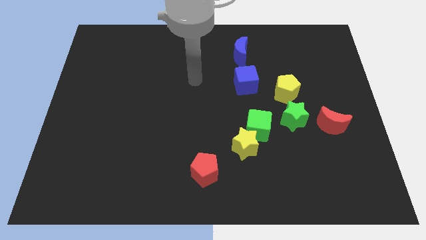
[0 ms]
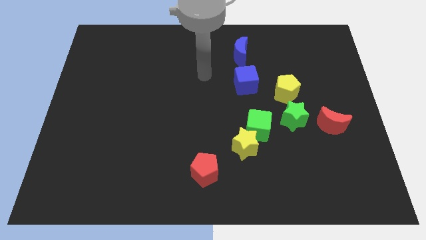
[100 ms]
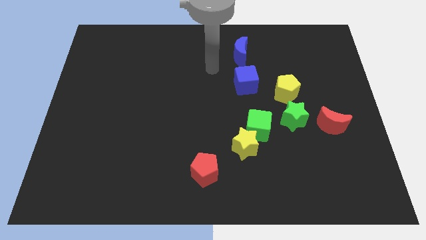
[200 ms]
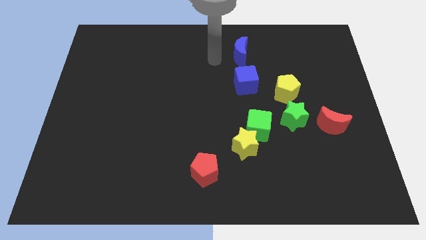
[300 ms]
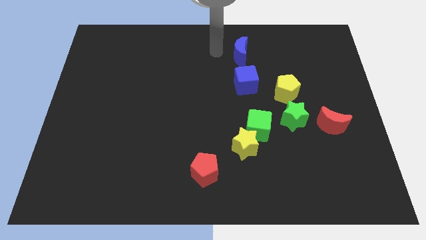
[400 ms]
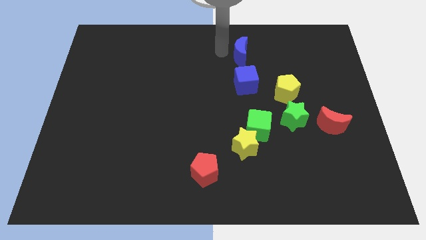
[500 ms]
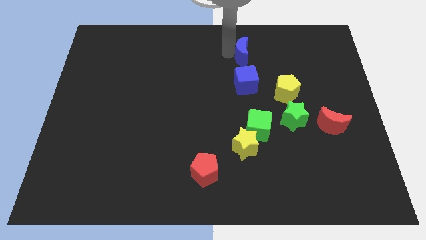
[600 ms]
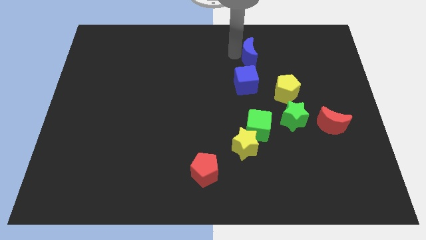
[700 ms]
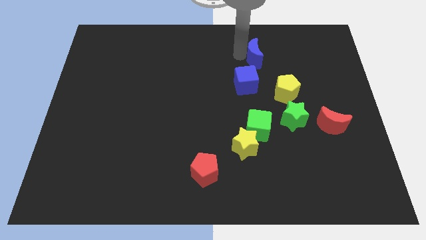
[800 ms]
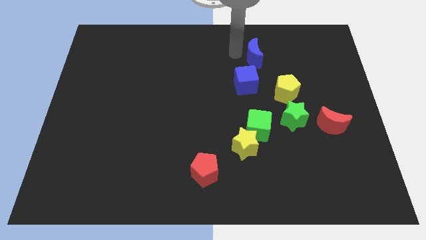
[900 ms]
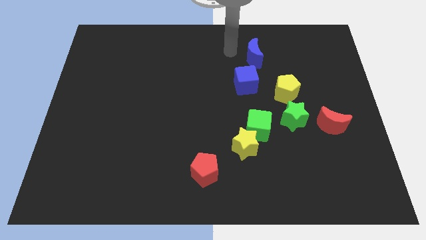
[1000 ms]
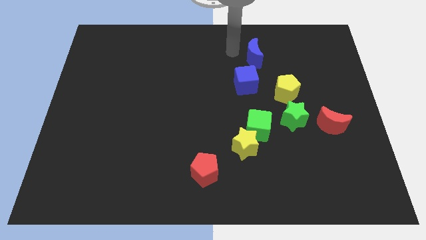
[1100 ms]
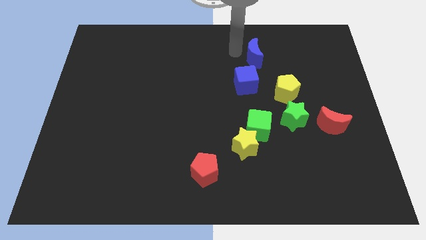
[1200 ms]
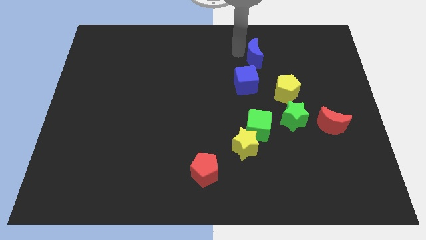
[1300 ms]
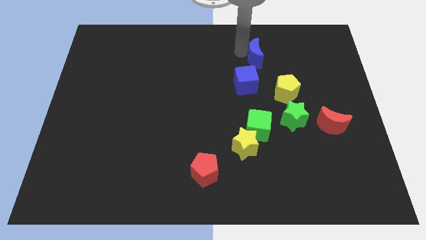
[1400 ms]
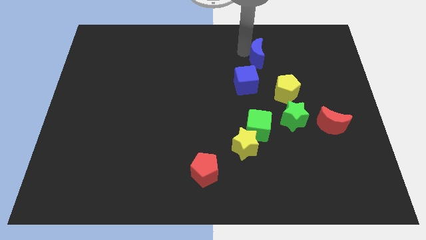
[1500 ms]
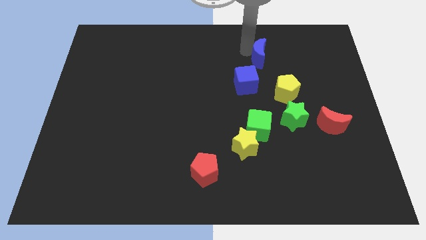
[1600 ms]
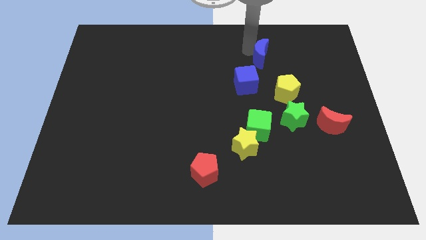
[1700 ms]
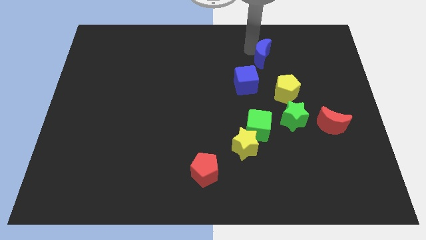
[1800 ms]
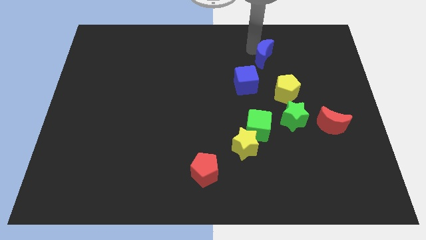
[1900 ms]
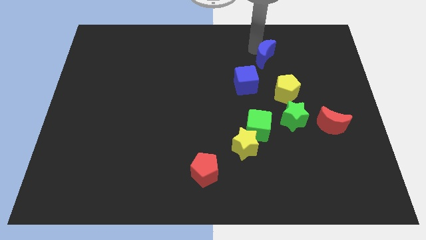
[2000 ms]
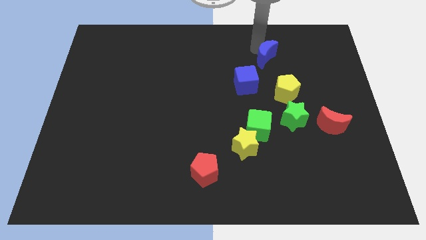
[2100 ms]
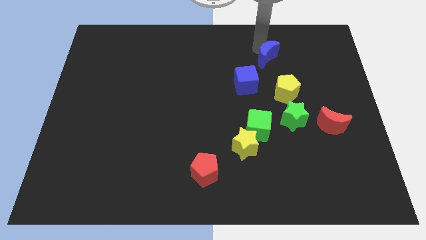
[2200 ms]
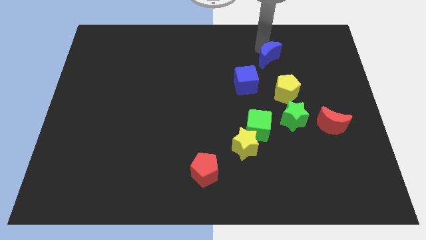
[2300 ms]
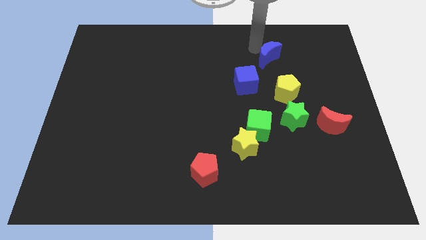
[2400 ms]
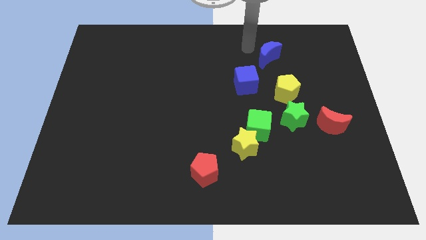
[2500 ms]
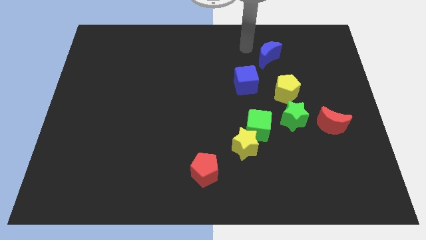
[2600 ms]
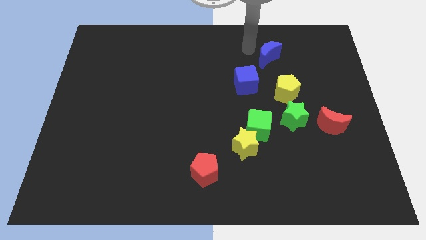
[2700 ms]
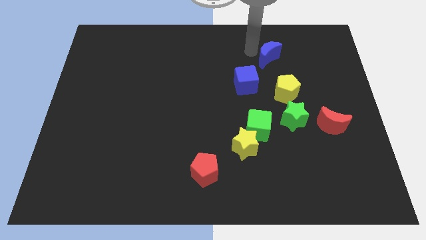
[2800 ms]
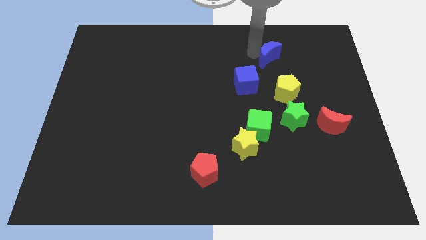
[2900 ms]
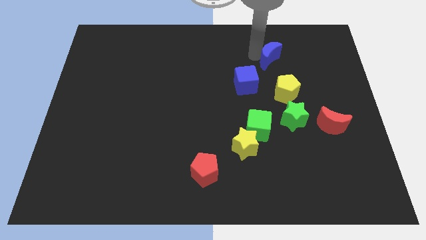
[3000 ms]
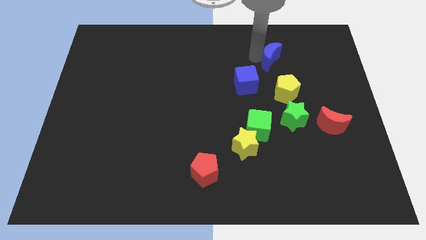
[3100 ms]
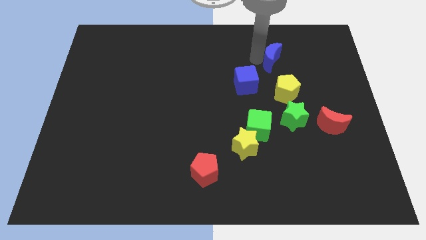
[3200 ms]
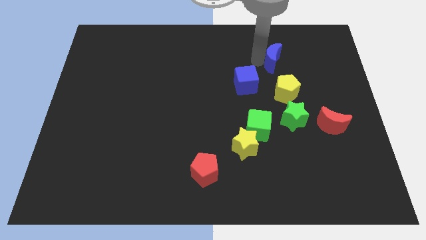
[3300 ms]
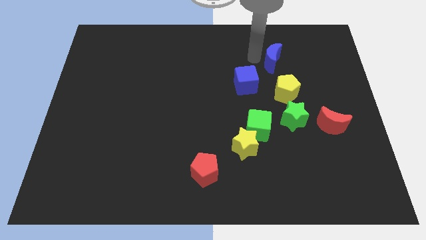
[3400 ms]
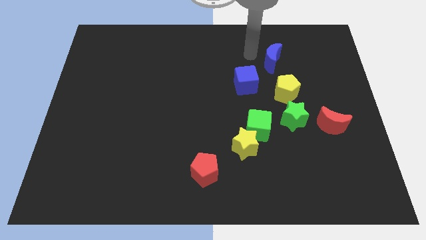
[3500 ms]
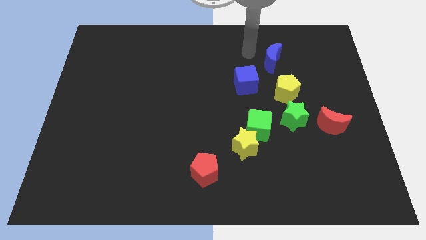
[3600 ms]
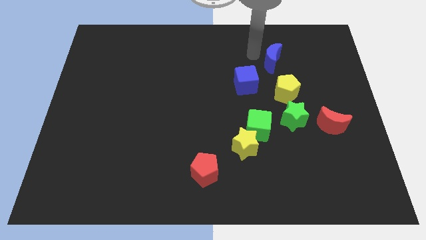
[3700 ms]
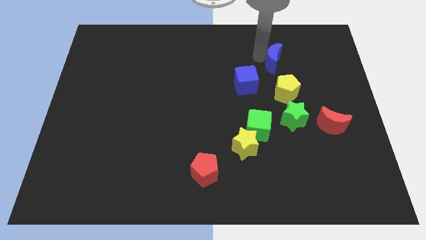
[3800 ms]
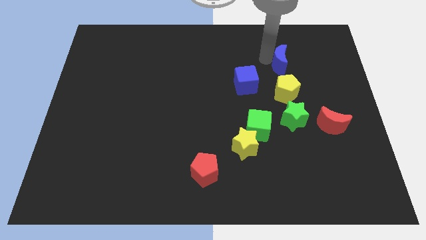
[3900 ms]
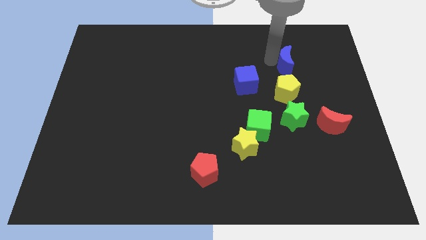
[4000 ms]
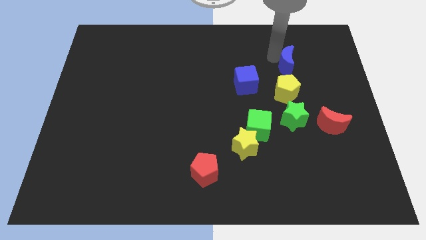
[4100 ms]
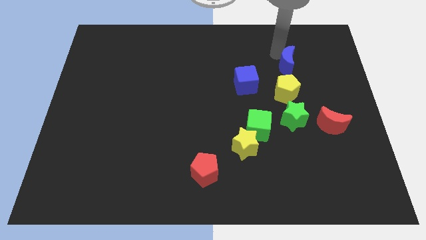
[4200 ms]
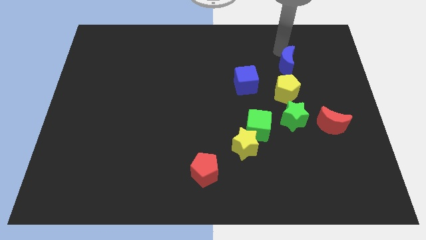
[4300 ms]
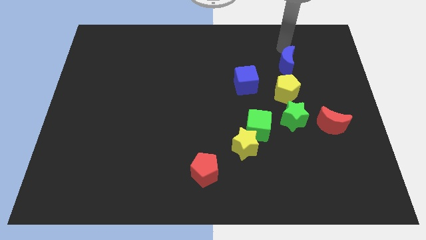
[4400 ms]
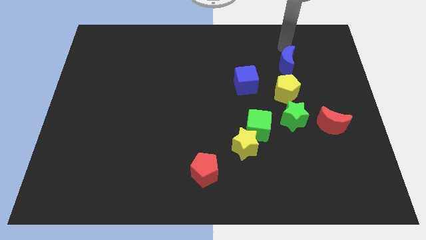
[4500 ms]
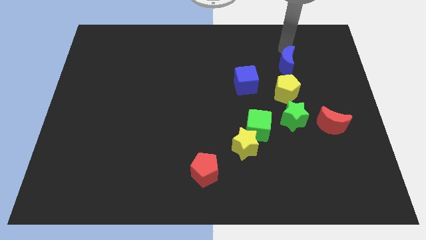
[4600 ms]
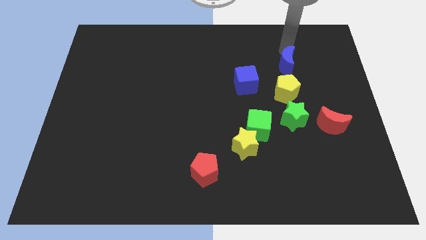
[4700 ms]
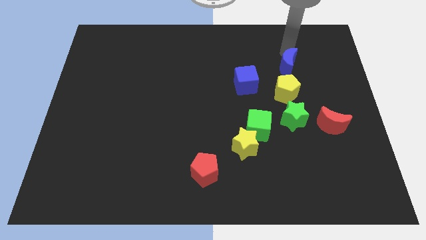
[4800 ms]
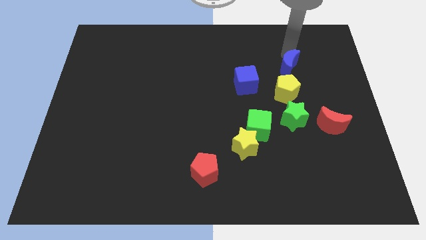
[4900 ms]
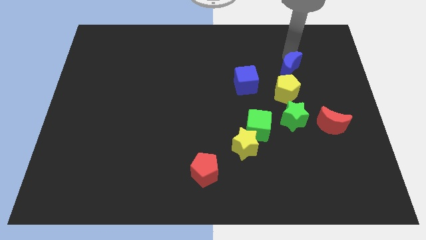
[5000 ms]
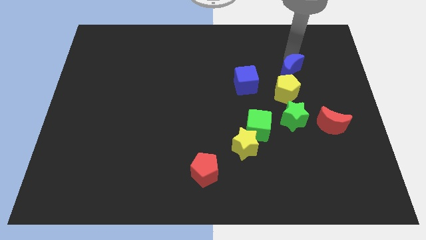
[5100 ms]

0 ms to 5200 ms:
move the blue moon right of the blue cube

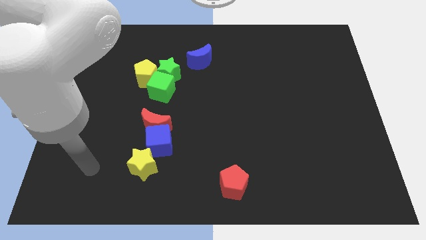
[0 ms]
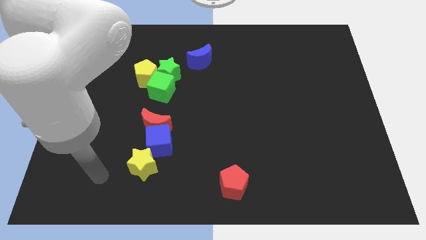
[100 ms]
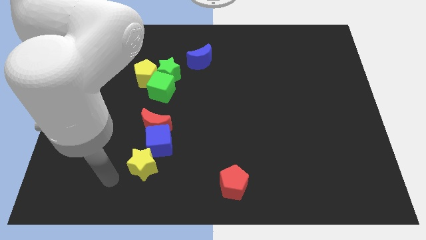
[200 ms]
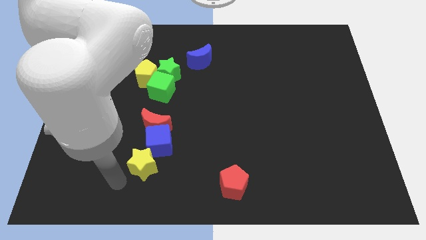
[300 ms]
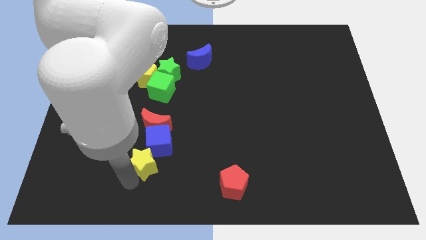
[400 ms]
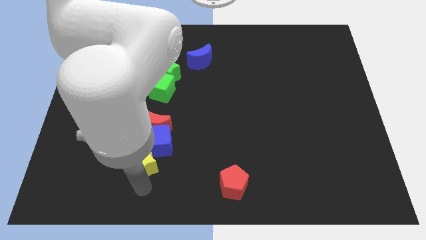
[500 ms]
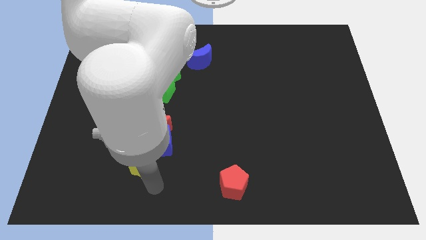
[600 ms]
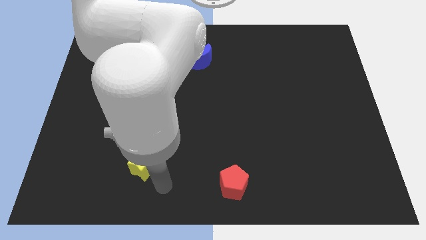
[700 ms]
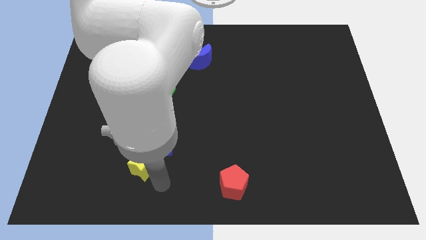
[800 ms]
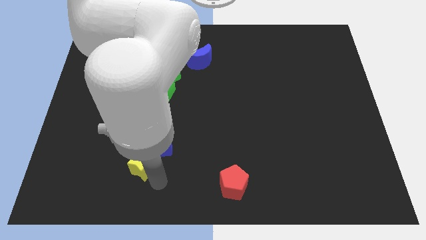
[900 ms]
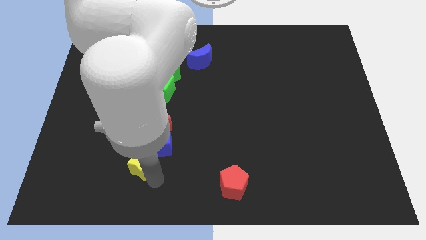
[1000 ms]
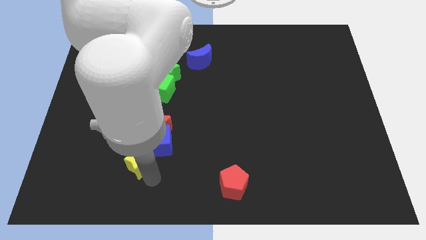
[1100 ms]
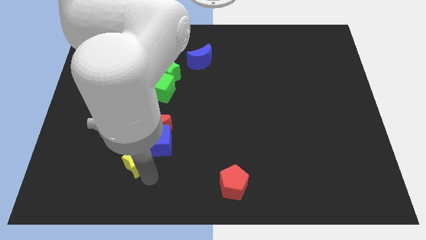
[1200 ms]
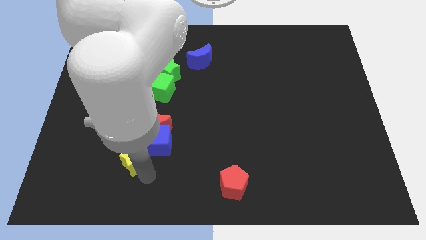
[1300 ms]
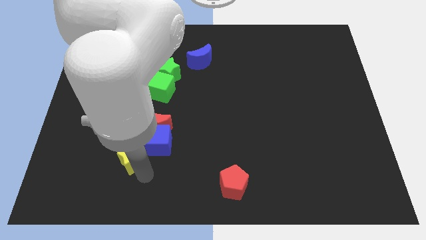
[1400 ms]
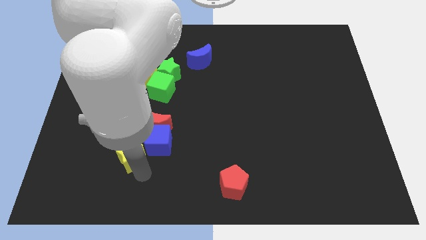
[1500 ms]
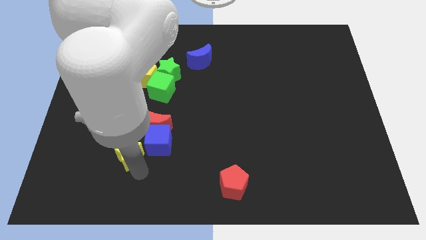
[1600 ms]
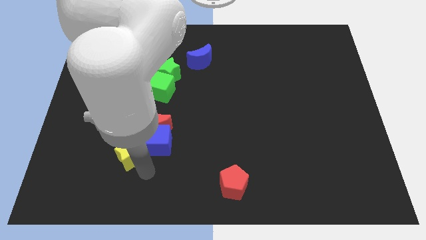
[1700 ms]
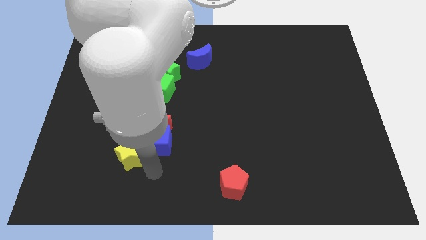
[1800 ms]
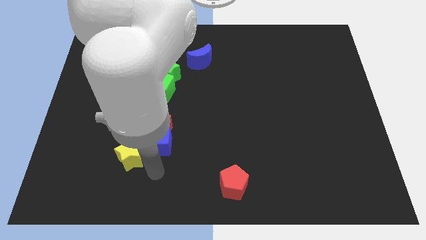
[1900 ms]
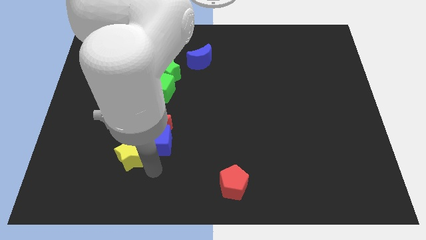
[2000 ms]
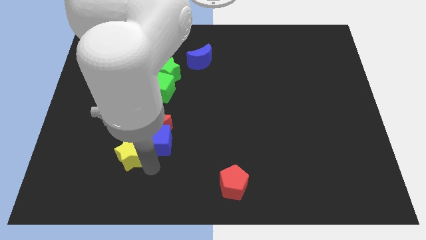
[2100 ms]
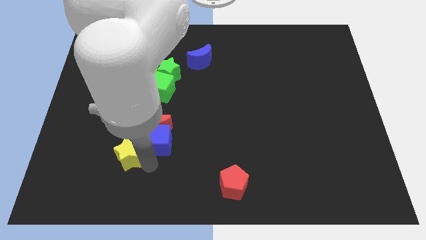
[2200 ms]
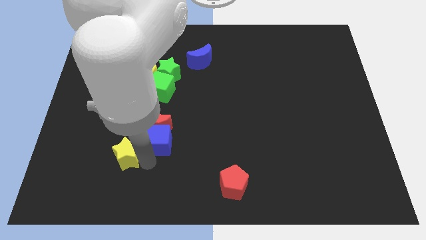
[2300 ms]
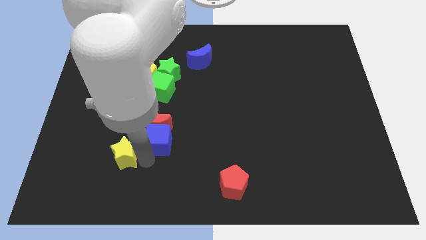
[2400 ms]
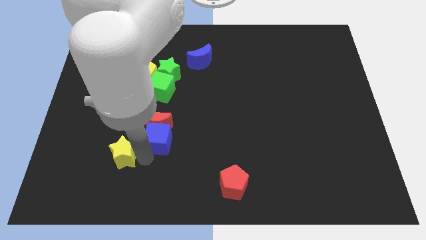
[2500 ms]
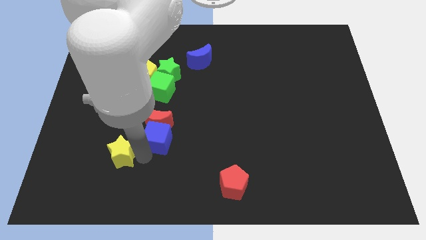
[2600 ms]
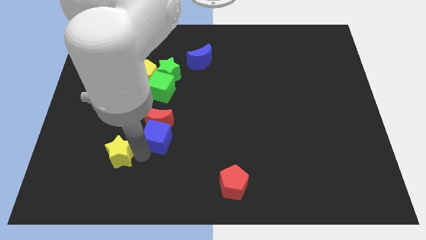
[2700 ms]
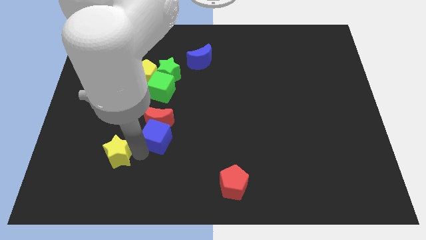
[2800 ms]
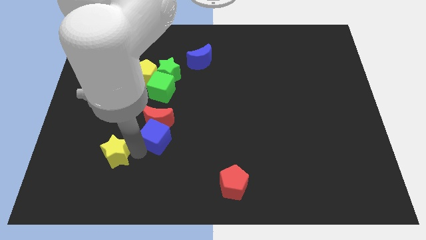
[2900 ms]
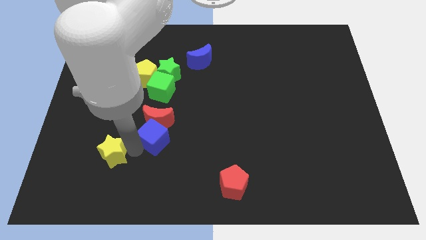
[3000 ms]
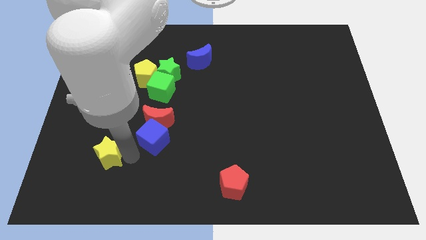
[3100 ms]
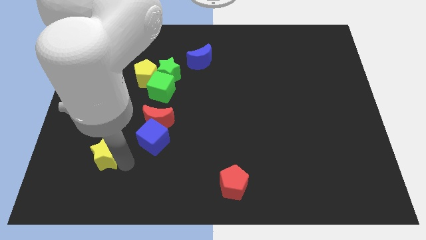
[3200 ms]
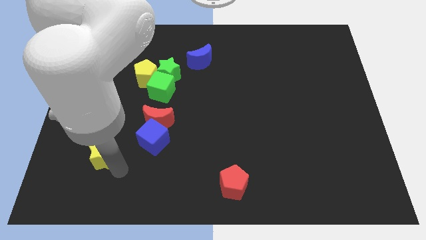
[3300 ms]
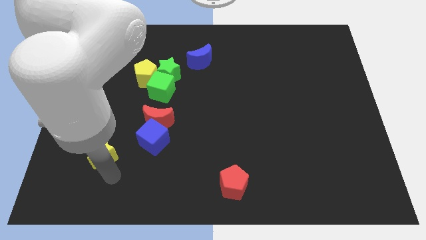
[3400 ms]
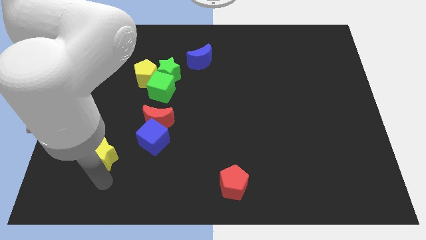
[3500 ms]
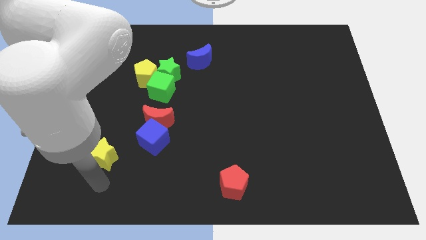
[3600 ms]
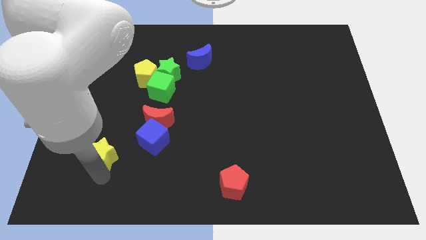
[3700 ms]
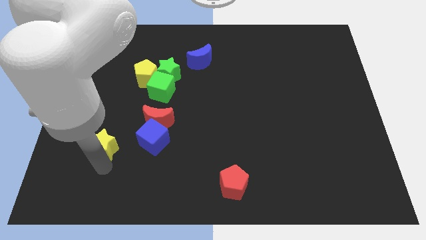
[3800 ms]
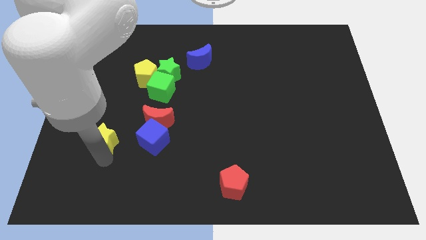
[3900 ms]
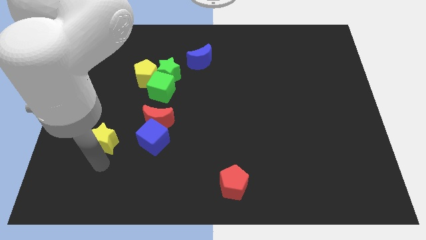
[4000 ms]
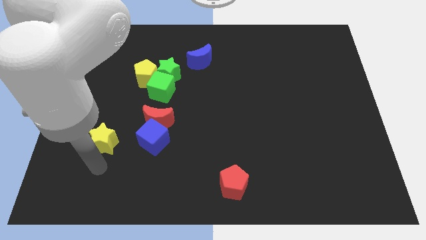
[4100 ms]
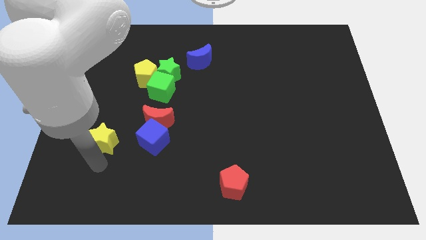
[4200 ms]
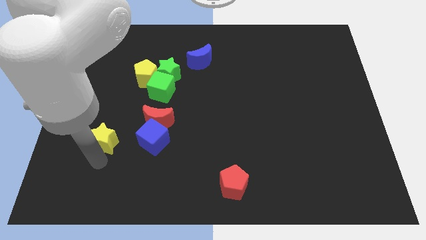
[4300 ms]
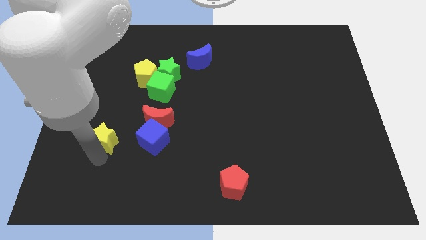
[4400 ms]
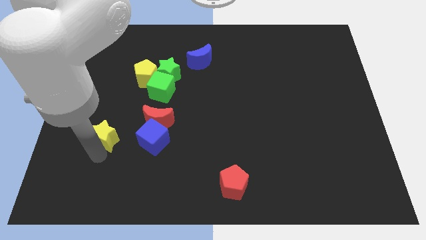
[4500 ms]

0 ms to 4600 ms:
slide the yellow star just left of the red moon
